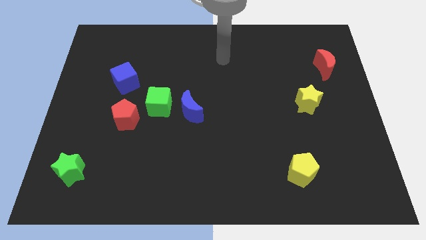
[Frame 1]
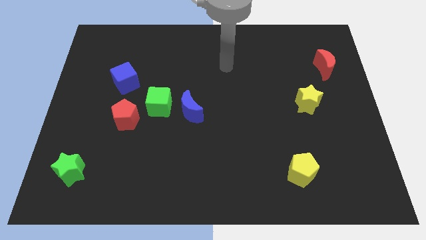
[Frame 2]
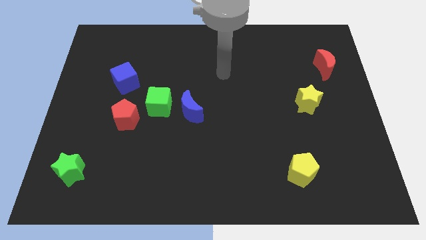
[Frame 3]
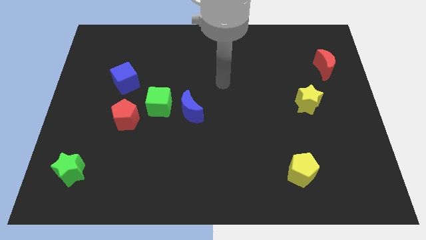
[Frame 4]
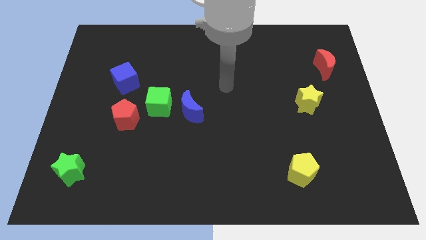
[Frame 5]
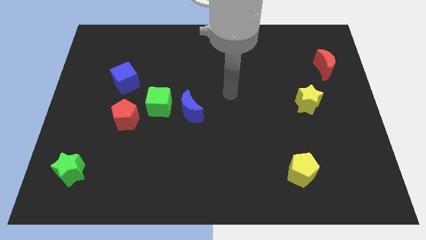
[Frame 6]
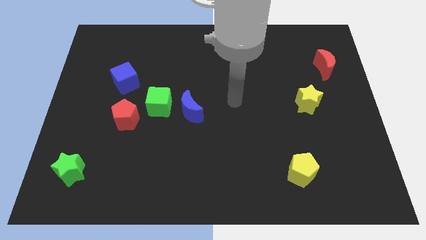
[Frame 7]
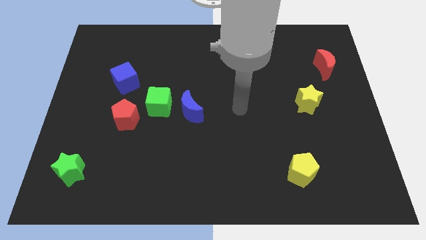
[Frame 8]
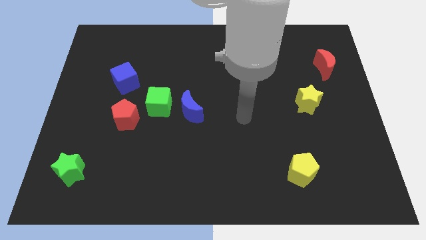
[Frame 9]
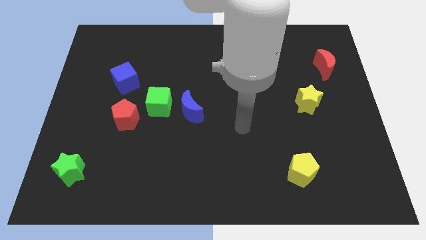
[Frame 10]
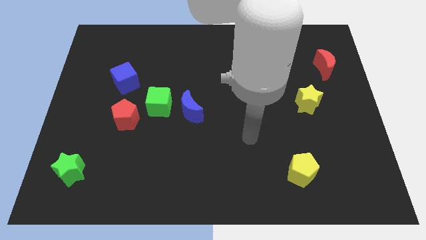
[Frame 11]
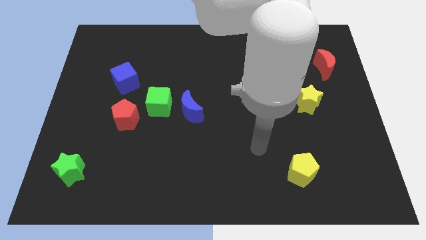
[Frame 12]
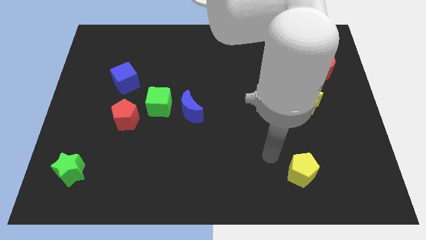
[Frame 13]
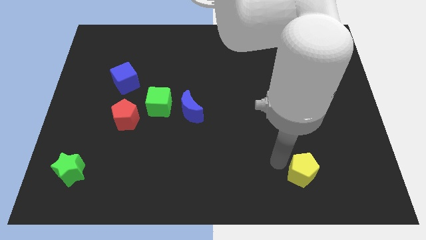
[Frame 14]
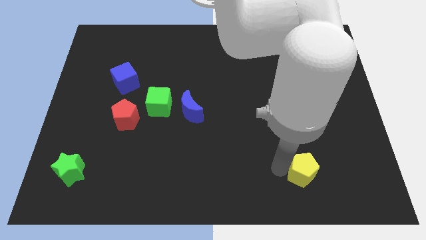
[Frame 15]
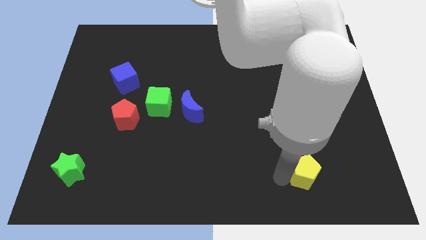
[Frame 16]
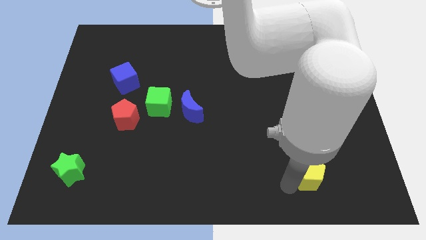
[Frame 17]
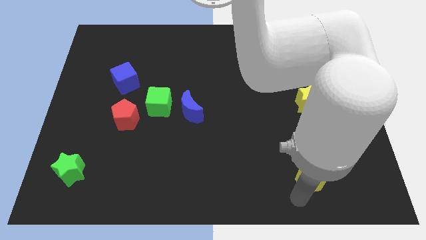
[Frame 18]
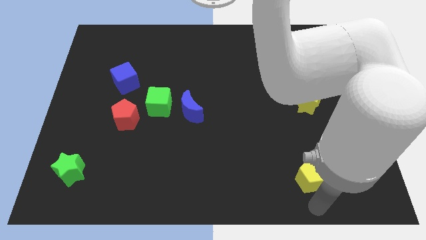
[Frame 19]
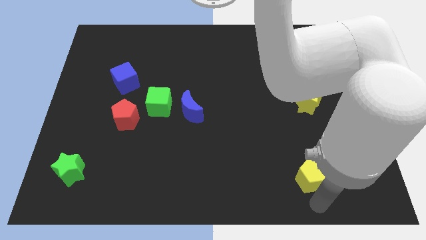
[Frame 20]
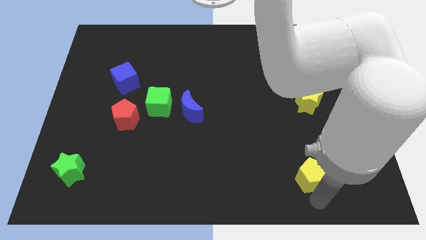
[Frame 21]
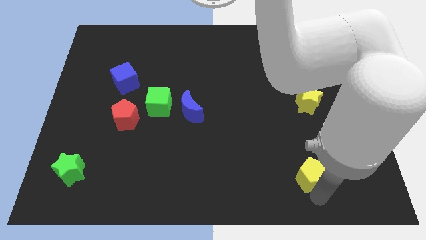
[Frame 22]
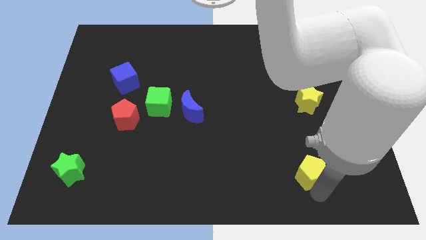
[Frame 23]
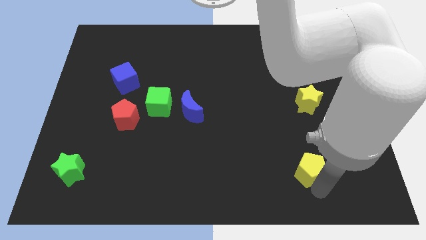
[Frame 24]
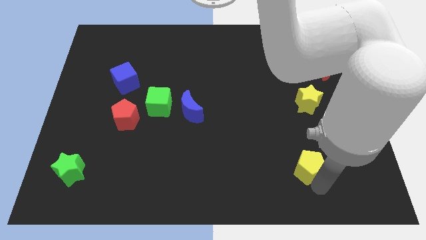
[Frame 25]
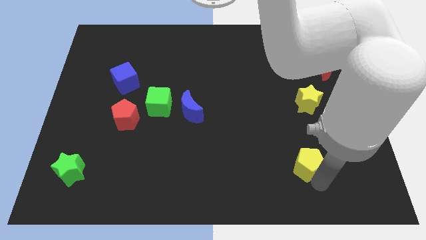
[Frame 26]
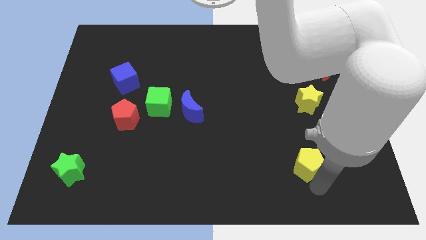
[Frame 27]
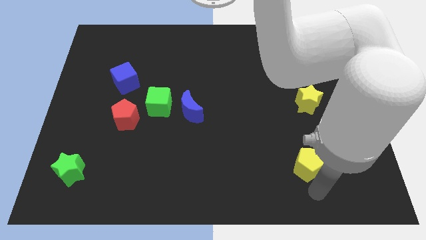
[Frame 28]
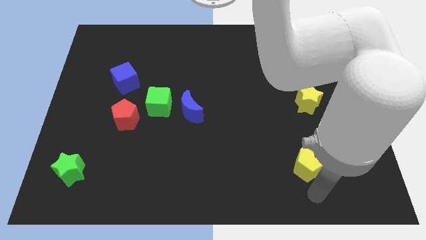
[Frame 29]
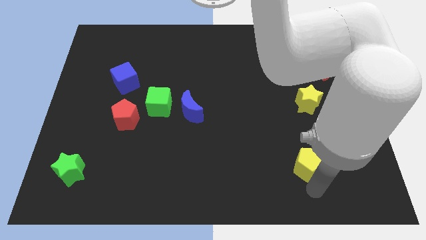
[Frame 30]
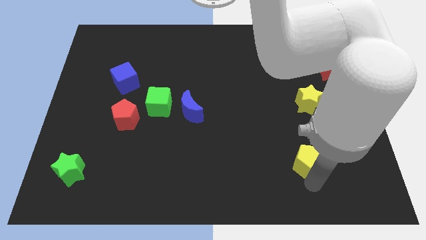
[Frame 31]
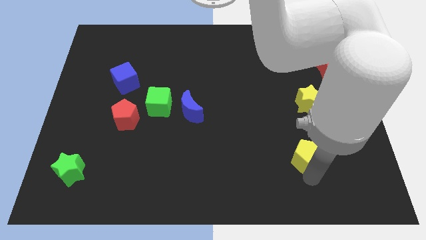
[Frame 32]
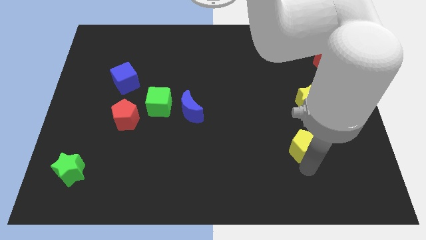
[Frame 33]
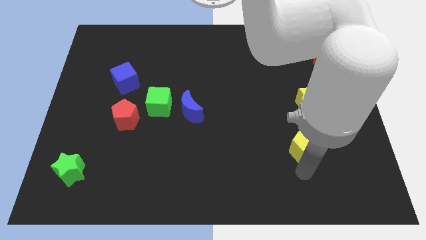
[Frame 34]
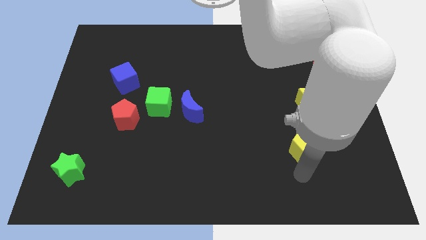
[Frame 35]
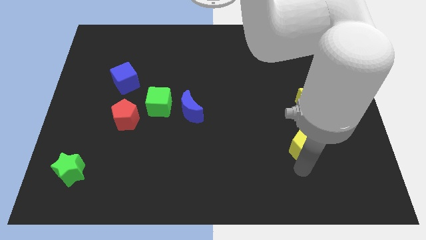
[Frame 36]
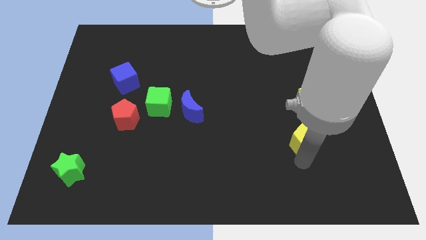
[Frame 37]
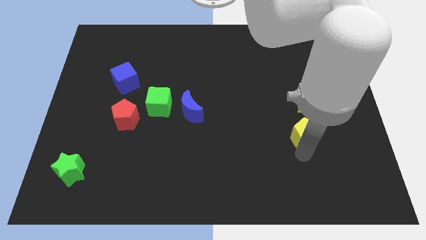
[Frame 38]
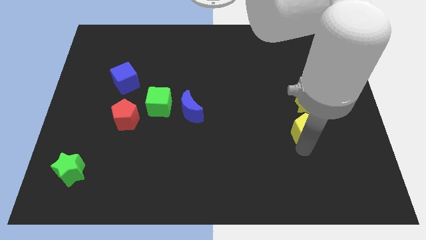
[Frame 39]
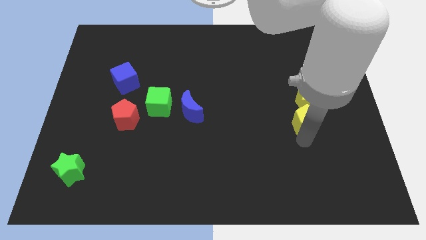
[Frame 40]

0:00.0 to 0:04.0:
put the yellow pentagon close to the yellow star

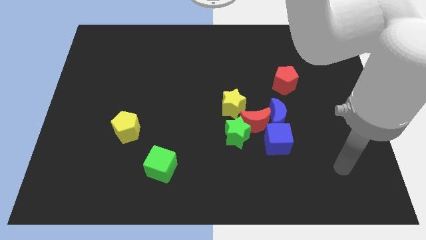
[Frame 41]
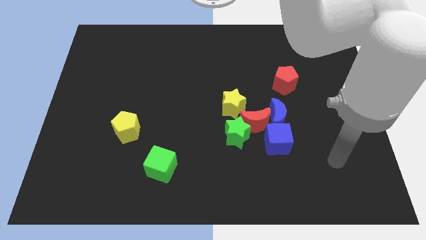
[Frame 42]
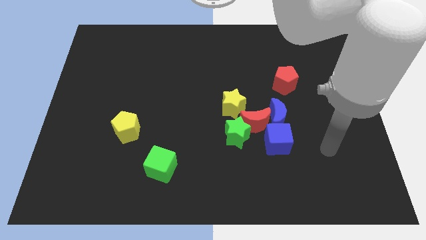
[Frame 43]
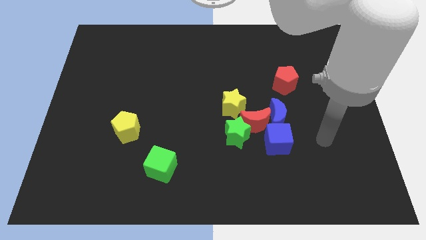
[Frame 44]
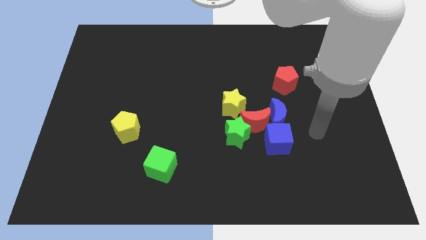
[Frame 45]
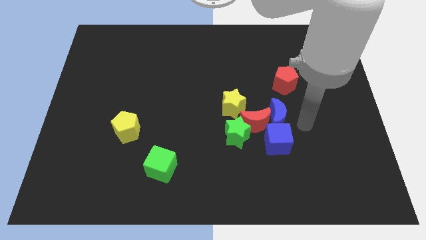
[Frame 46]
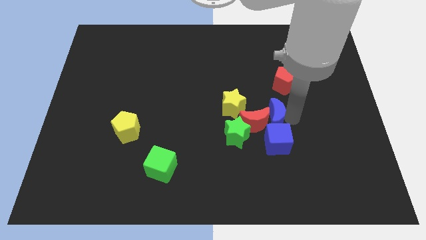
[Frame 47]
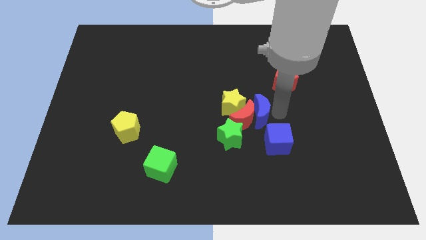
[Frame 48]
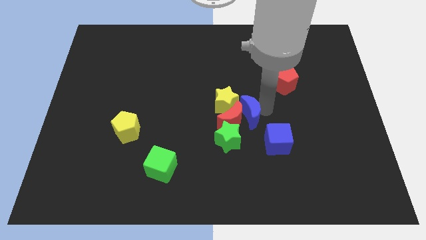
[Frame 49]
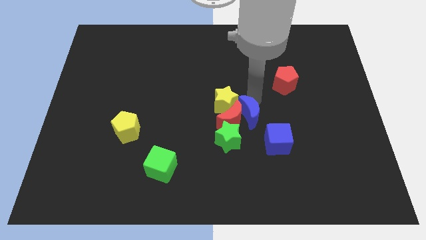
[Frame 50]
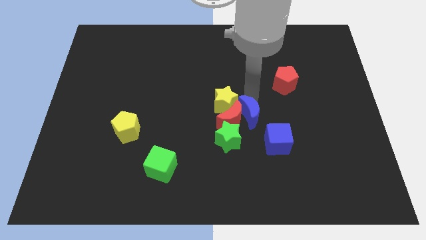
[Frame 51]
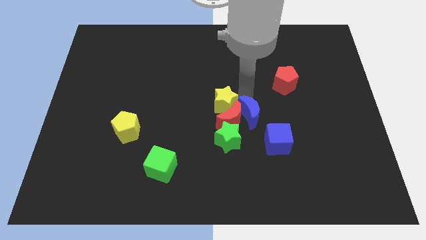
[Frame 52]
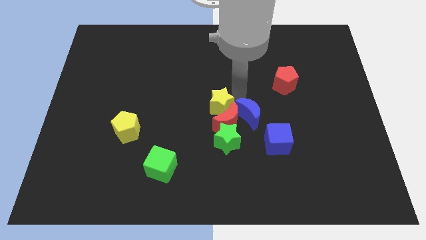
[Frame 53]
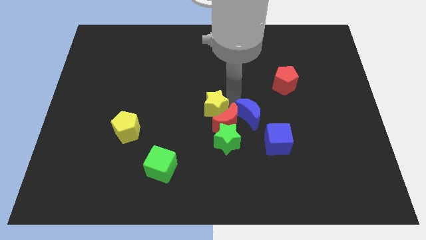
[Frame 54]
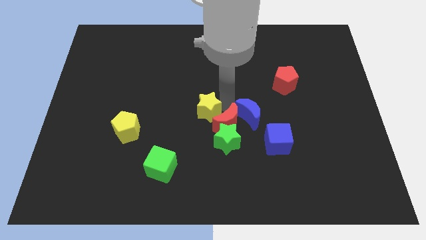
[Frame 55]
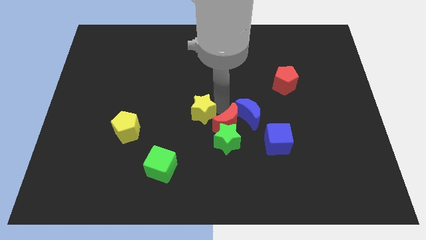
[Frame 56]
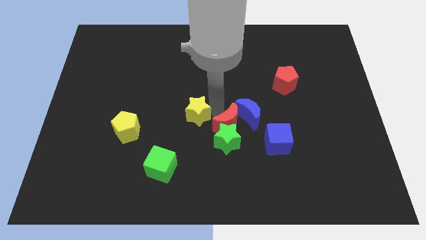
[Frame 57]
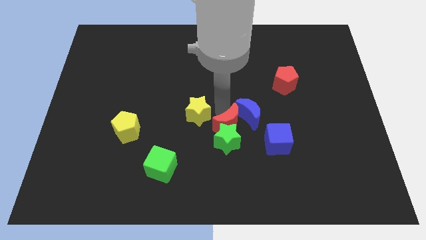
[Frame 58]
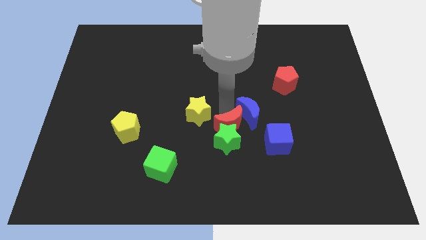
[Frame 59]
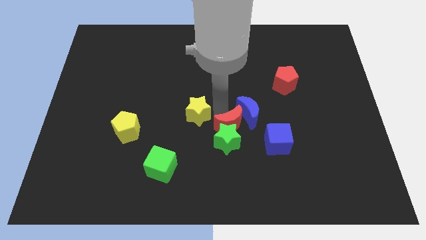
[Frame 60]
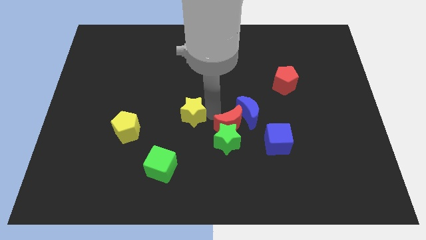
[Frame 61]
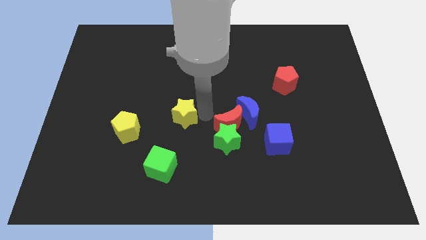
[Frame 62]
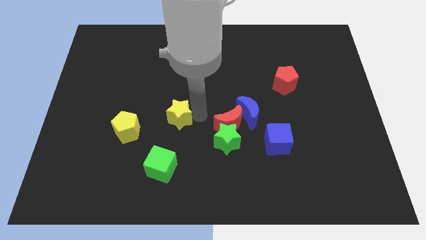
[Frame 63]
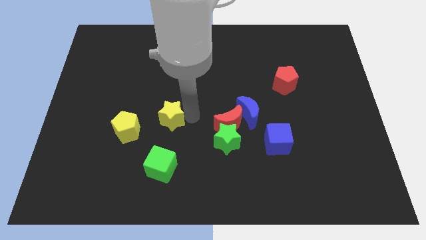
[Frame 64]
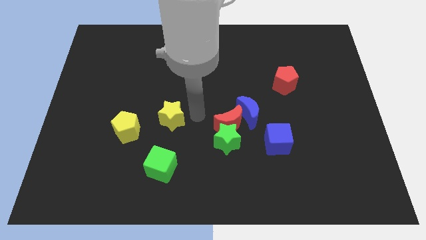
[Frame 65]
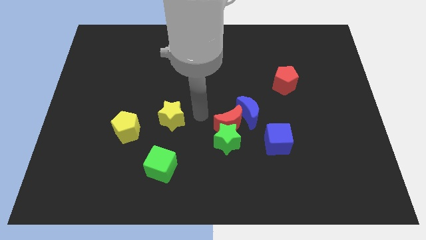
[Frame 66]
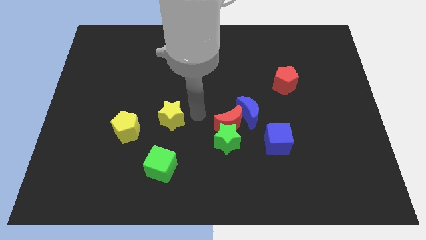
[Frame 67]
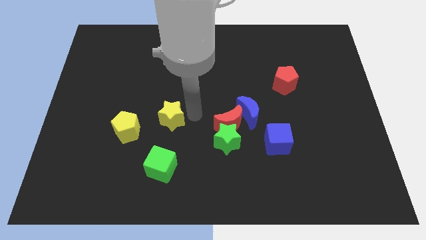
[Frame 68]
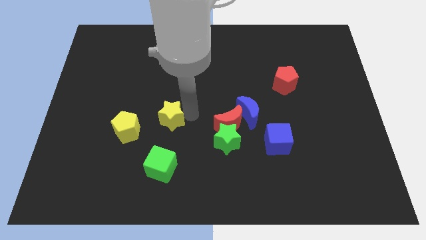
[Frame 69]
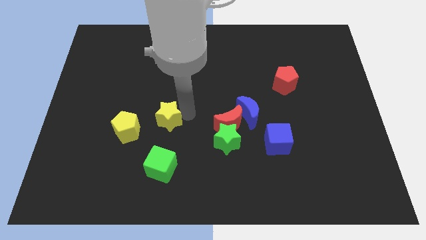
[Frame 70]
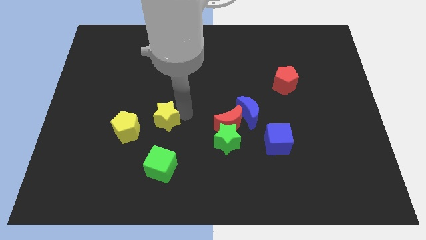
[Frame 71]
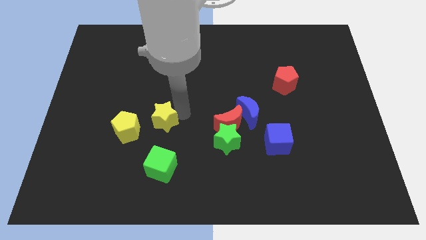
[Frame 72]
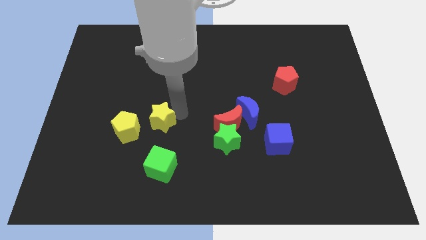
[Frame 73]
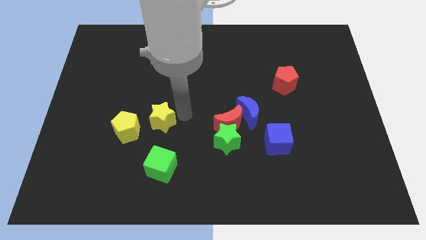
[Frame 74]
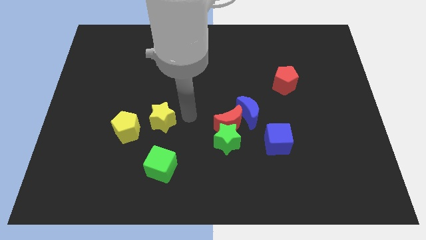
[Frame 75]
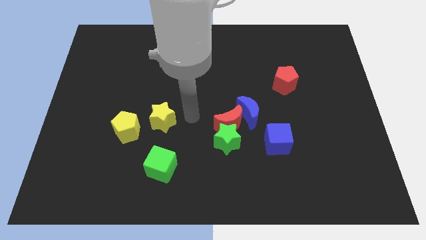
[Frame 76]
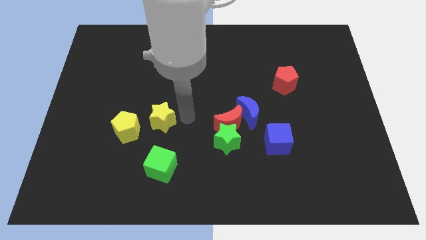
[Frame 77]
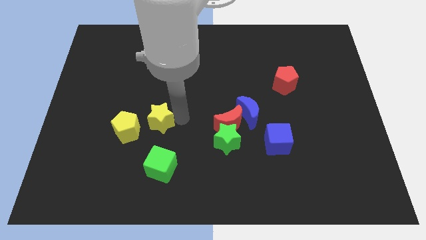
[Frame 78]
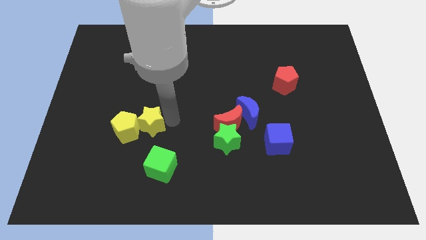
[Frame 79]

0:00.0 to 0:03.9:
slide the yellow star to the yellow pentagon
